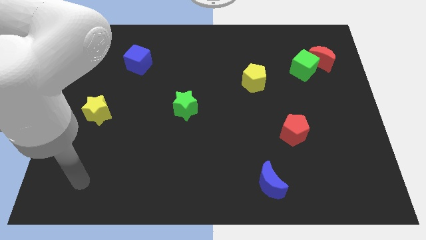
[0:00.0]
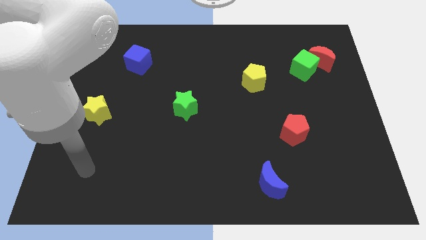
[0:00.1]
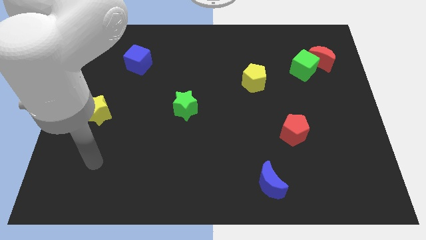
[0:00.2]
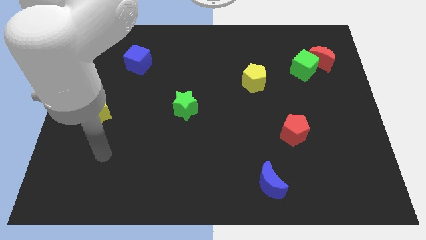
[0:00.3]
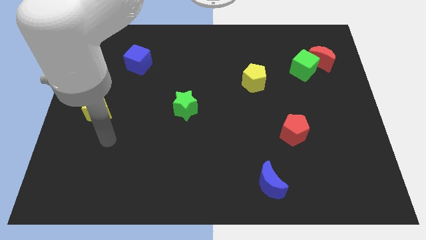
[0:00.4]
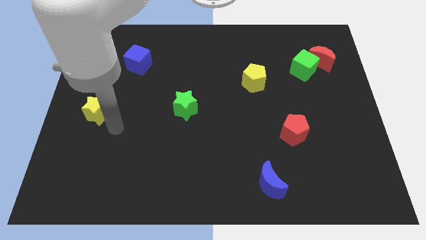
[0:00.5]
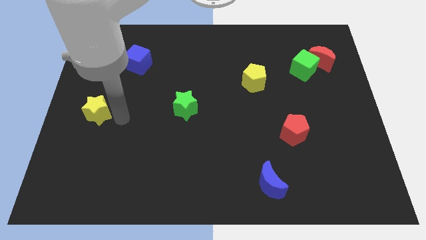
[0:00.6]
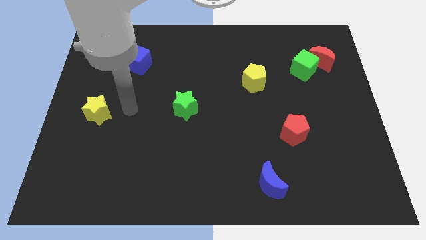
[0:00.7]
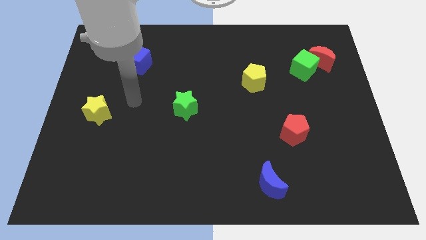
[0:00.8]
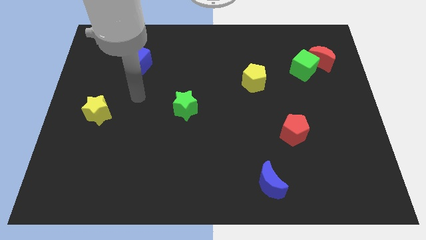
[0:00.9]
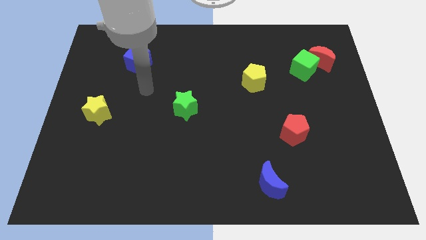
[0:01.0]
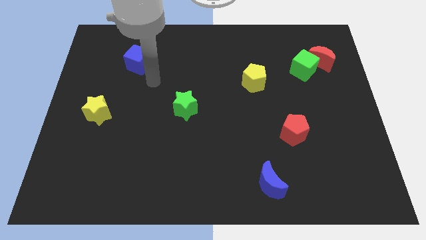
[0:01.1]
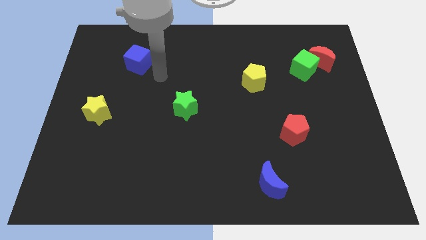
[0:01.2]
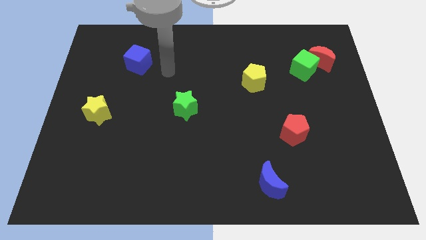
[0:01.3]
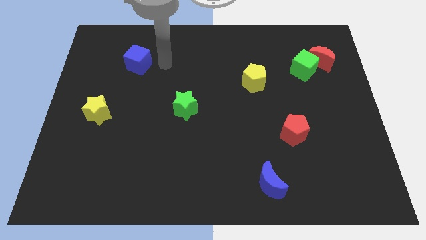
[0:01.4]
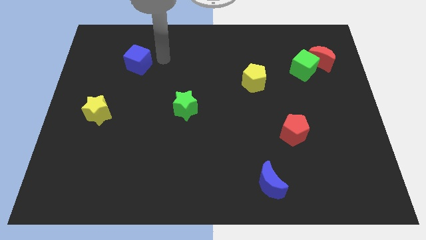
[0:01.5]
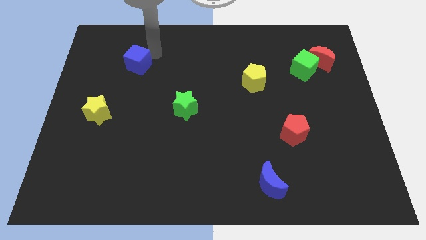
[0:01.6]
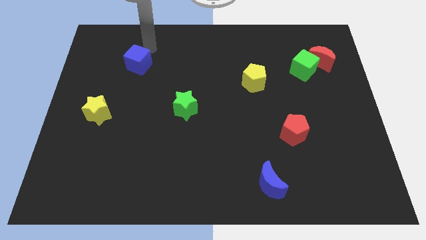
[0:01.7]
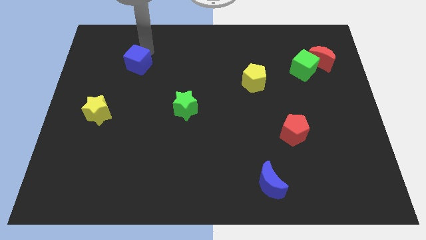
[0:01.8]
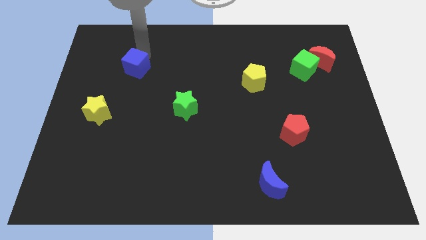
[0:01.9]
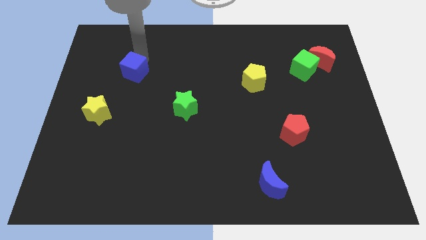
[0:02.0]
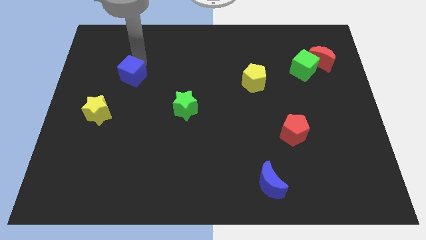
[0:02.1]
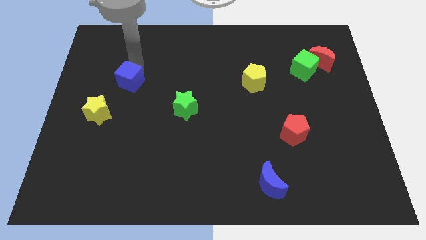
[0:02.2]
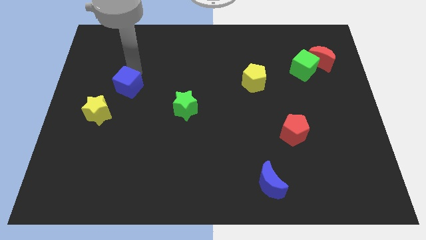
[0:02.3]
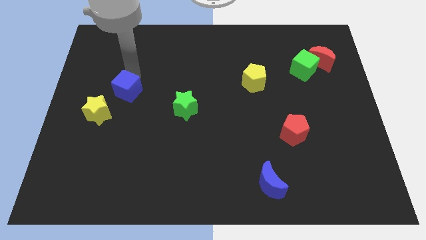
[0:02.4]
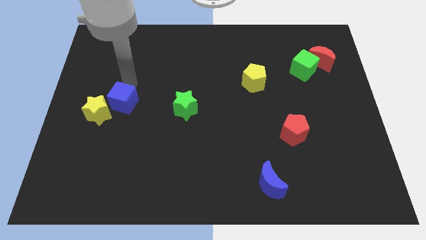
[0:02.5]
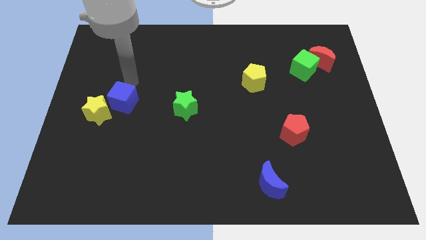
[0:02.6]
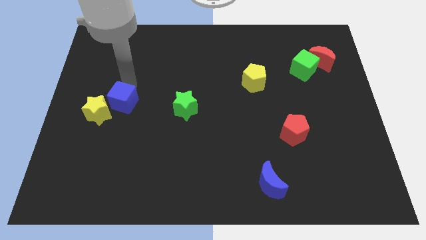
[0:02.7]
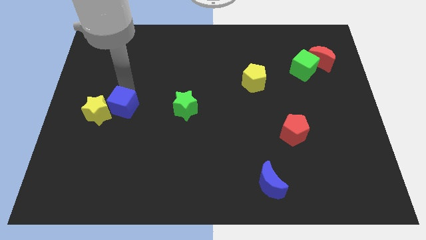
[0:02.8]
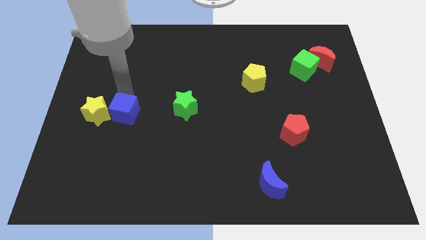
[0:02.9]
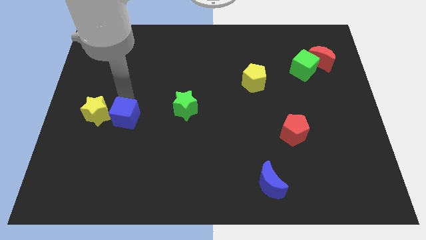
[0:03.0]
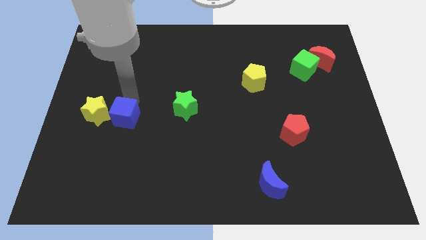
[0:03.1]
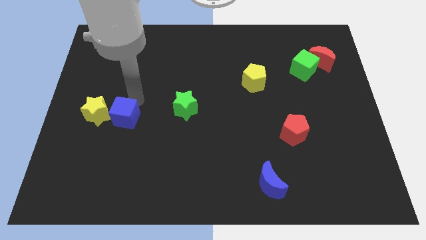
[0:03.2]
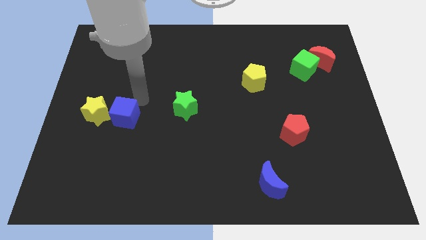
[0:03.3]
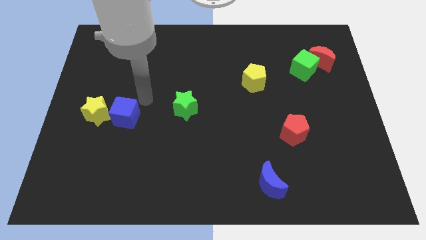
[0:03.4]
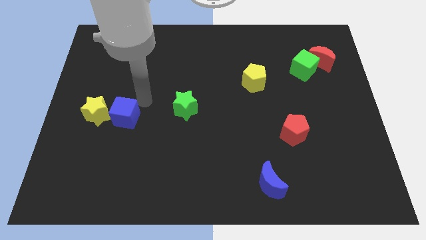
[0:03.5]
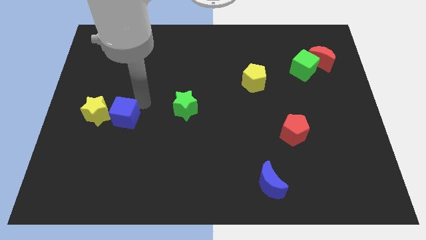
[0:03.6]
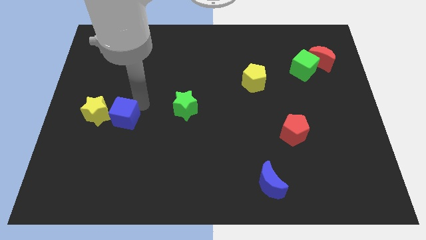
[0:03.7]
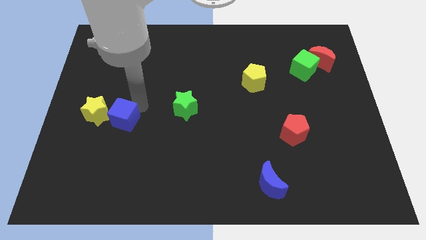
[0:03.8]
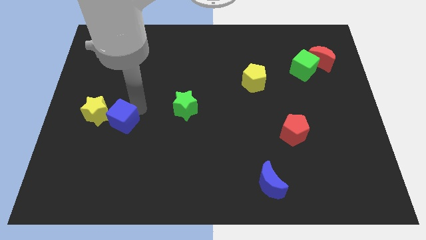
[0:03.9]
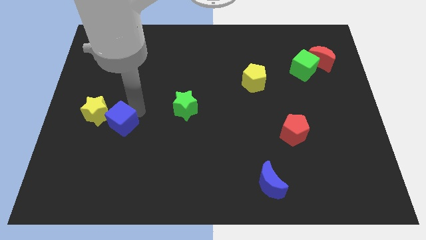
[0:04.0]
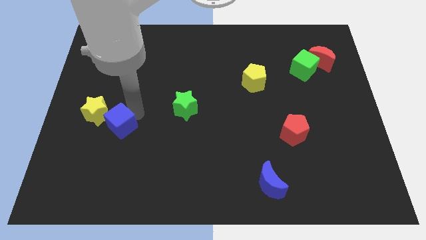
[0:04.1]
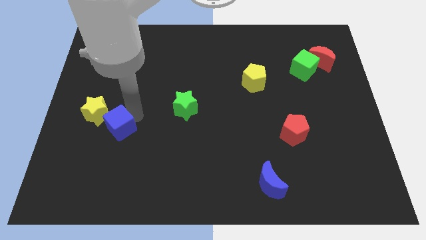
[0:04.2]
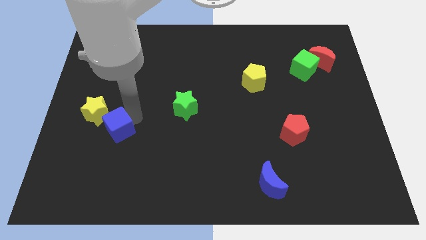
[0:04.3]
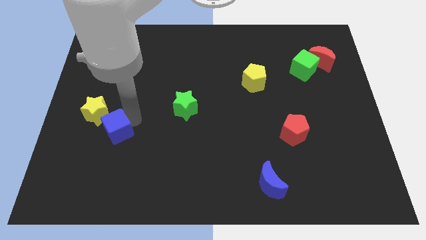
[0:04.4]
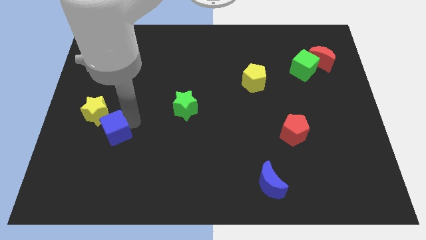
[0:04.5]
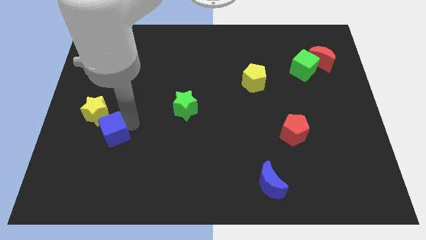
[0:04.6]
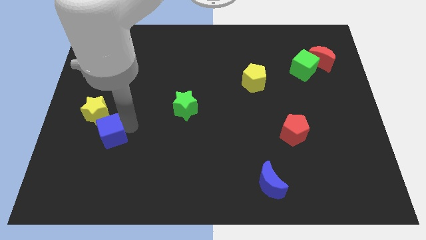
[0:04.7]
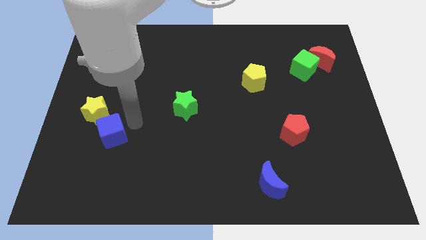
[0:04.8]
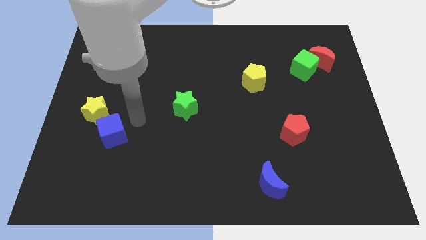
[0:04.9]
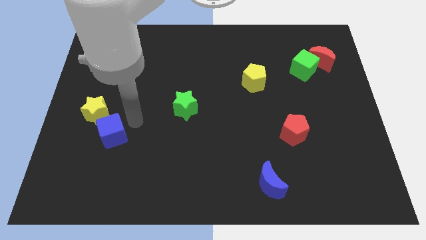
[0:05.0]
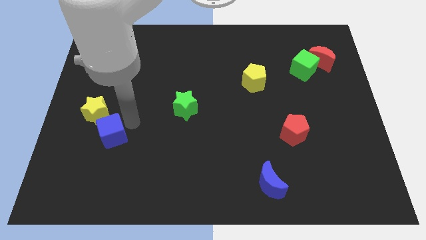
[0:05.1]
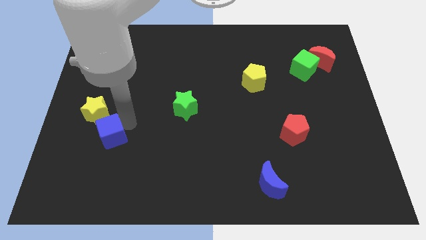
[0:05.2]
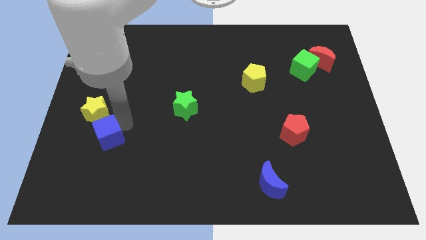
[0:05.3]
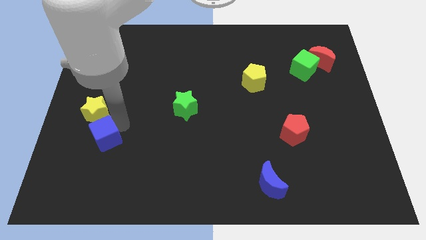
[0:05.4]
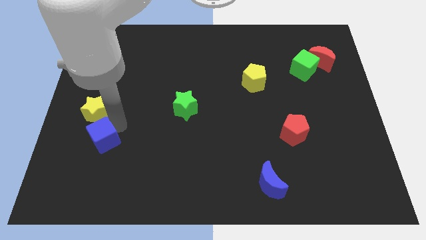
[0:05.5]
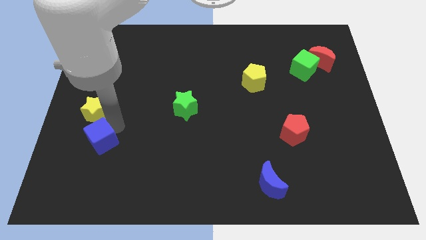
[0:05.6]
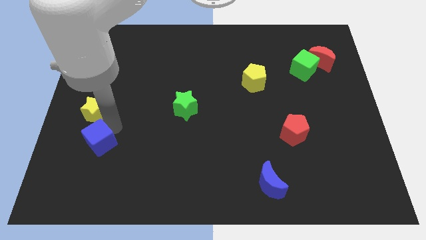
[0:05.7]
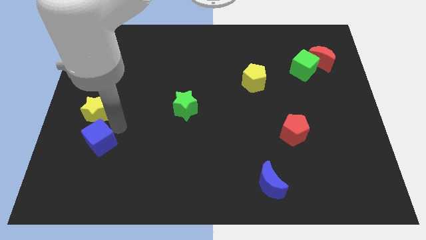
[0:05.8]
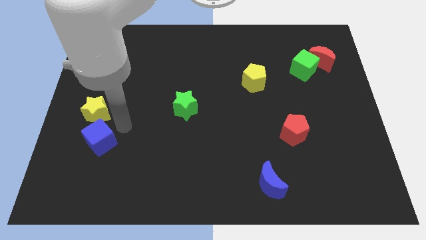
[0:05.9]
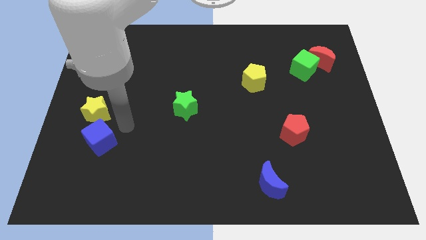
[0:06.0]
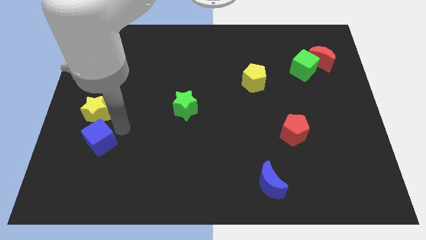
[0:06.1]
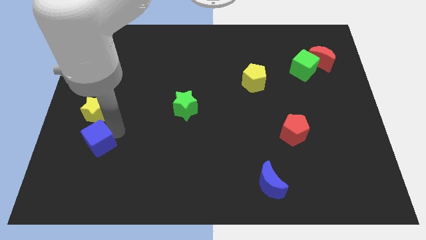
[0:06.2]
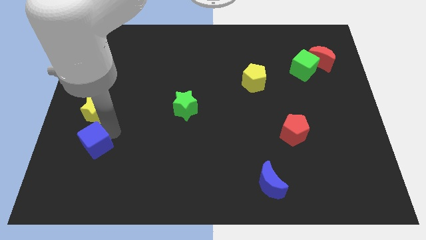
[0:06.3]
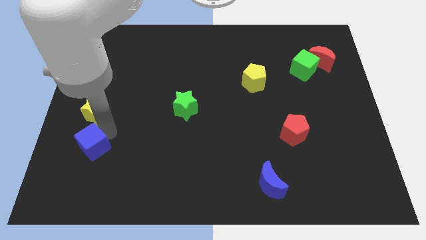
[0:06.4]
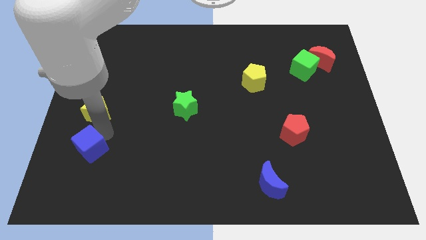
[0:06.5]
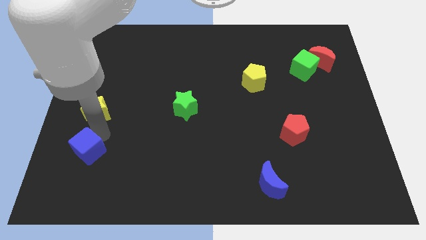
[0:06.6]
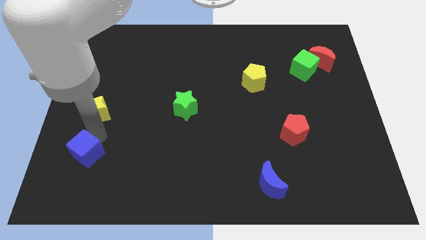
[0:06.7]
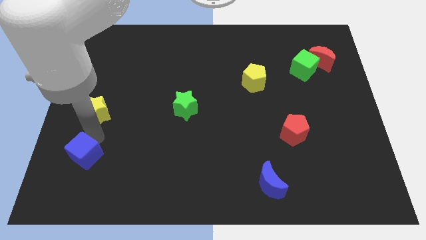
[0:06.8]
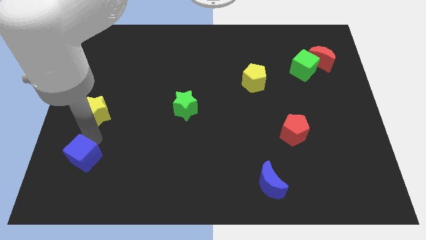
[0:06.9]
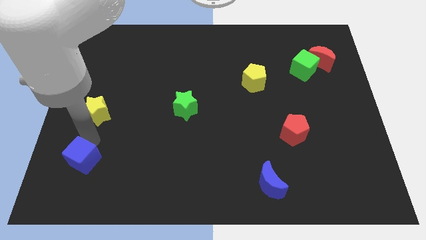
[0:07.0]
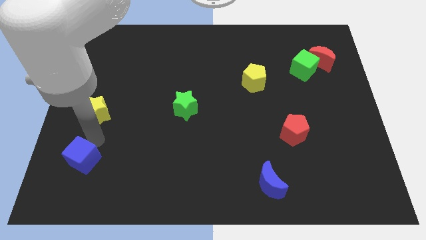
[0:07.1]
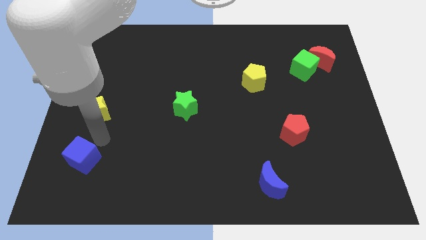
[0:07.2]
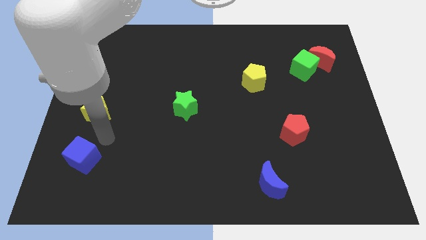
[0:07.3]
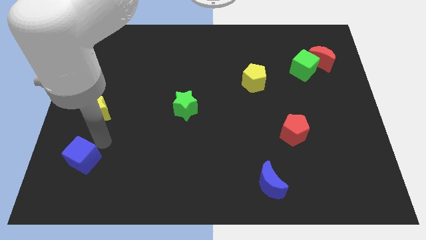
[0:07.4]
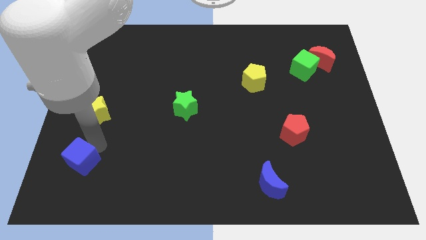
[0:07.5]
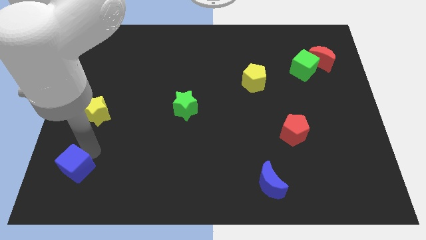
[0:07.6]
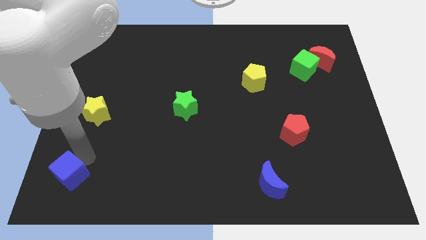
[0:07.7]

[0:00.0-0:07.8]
slide the blue cube to the bottom left
